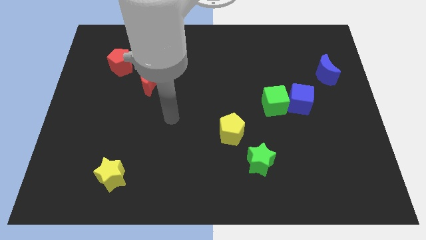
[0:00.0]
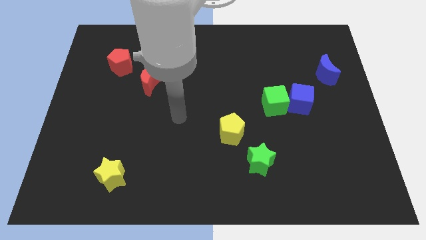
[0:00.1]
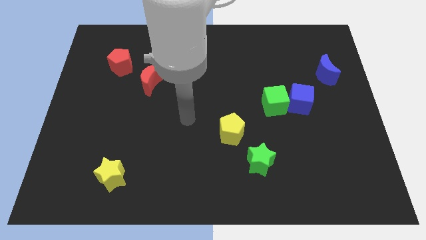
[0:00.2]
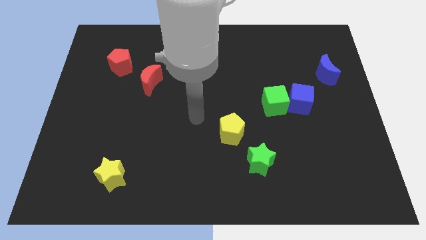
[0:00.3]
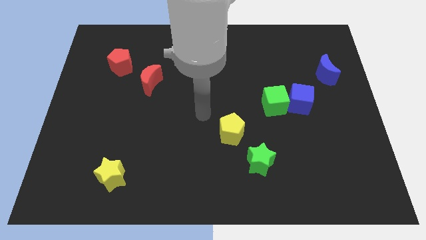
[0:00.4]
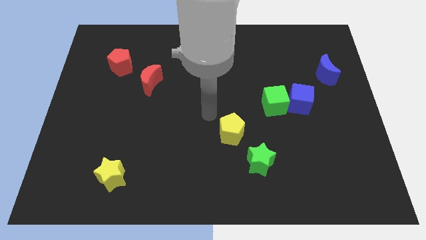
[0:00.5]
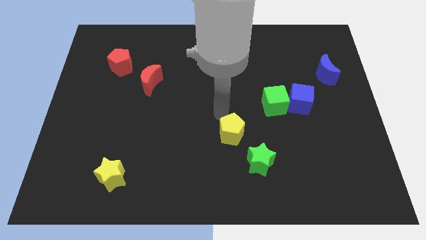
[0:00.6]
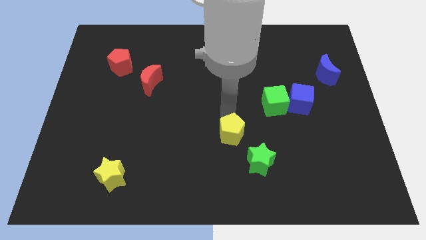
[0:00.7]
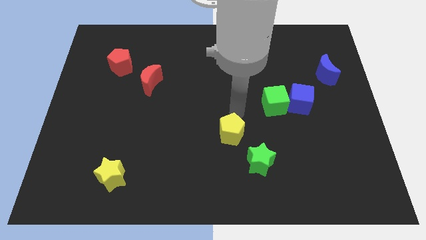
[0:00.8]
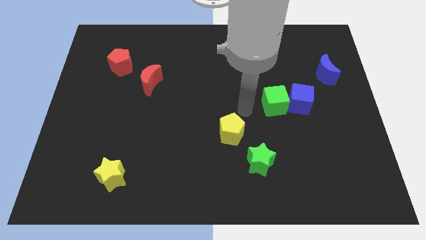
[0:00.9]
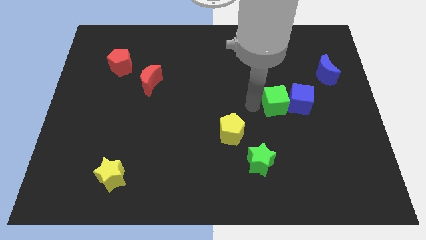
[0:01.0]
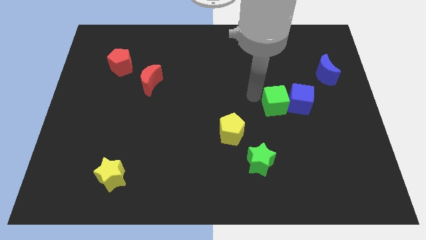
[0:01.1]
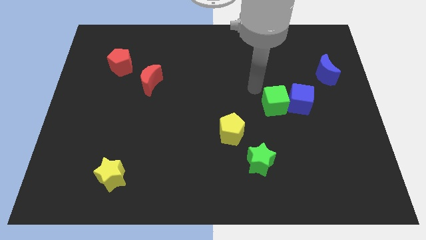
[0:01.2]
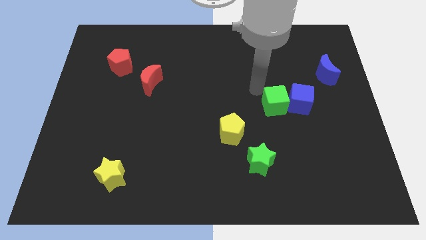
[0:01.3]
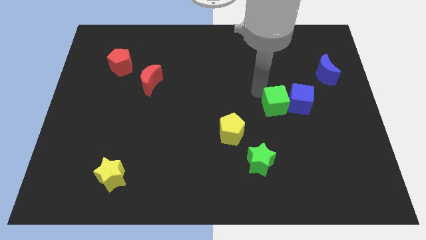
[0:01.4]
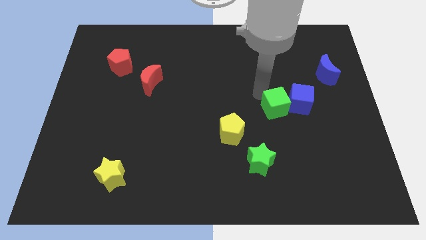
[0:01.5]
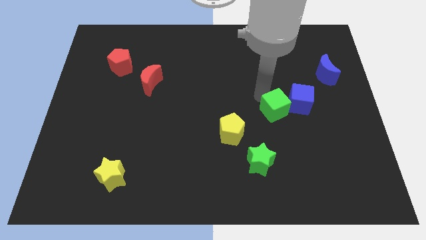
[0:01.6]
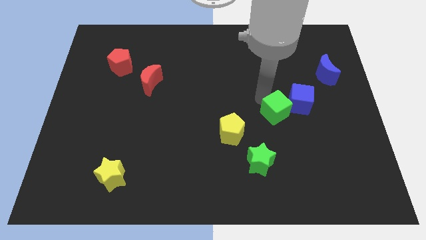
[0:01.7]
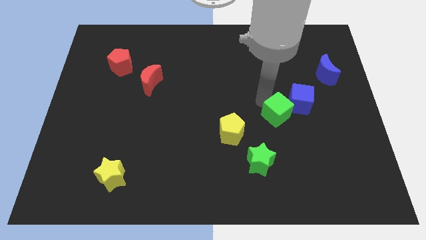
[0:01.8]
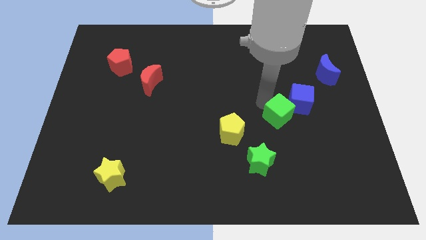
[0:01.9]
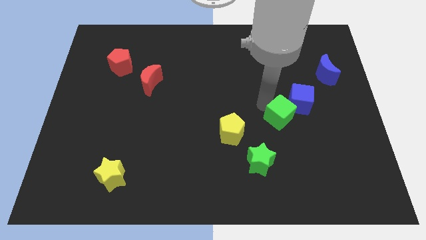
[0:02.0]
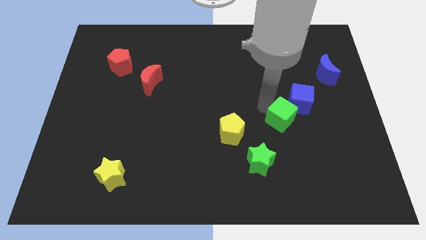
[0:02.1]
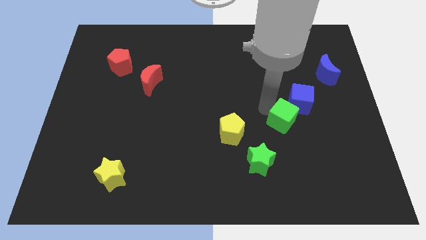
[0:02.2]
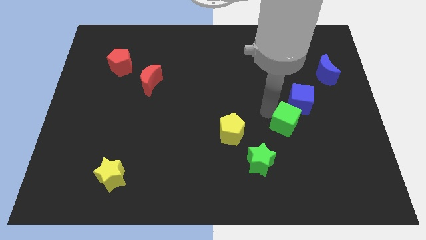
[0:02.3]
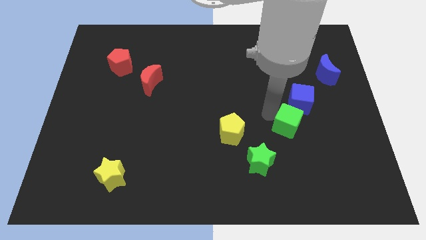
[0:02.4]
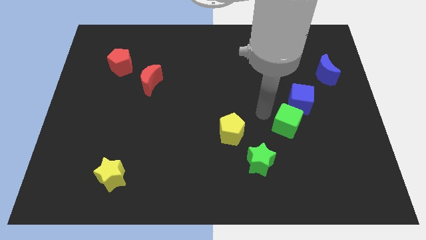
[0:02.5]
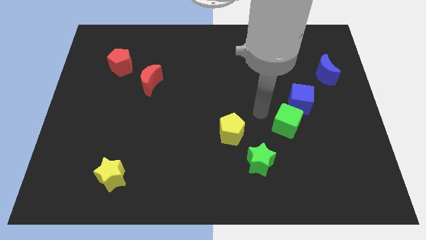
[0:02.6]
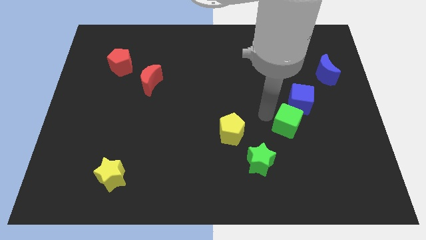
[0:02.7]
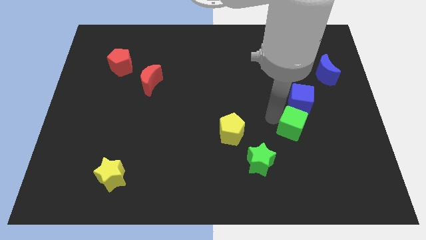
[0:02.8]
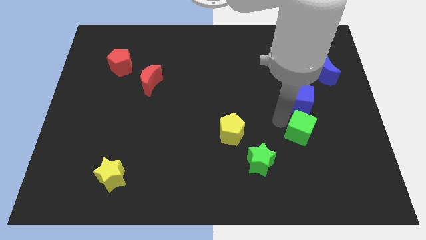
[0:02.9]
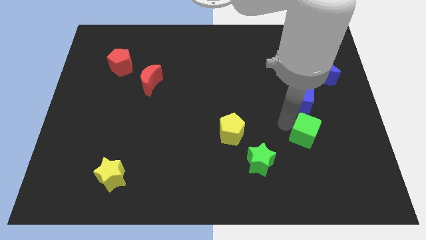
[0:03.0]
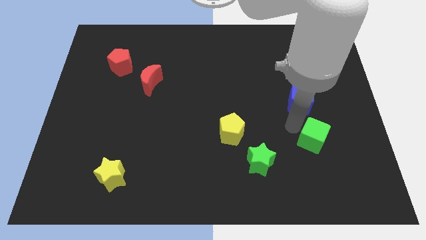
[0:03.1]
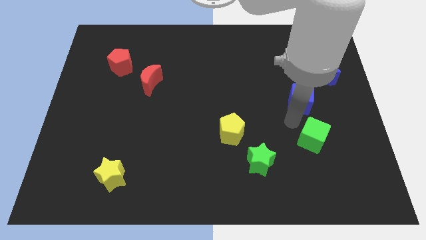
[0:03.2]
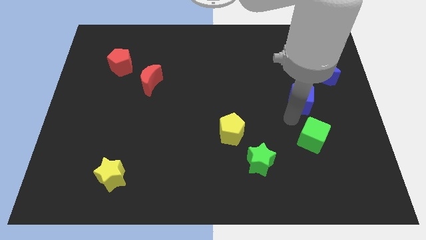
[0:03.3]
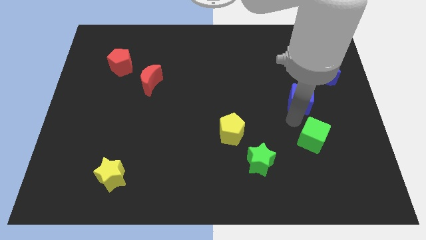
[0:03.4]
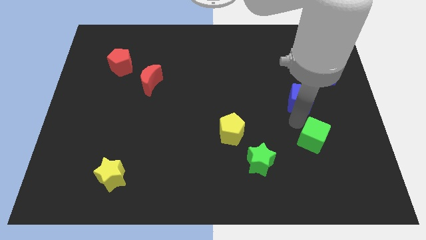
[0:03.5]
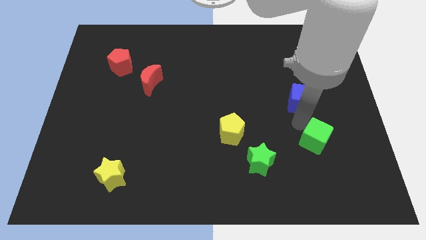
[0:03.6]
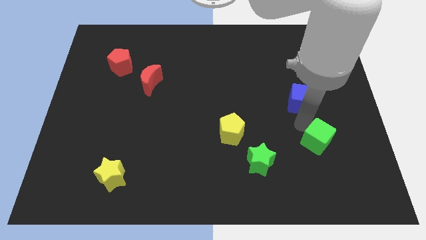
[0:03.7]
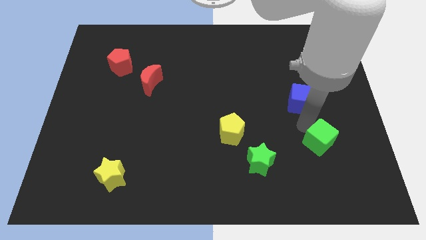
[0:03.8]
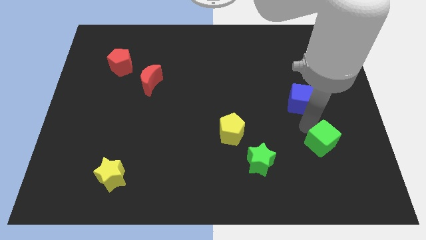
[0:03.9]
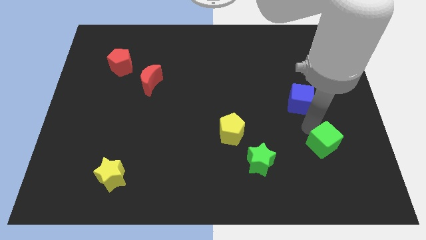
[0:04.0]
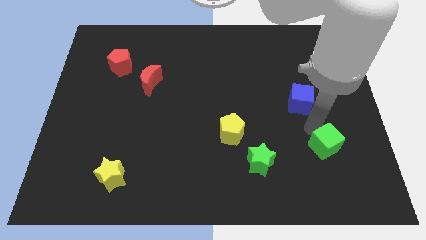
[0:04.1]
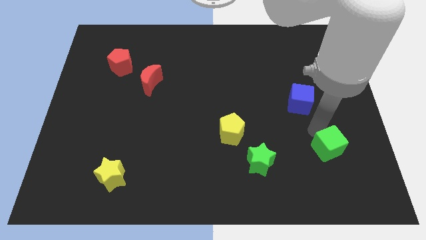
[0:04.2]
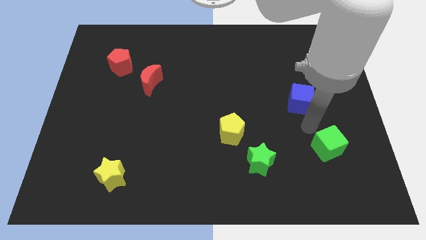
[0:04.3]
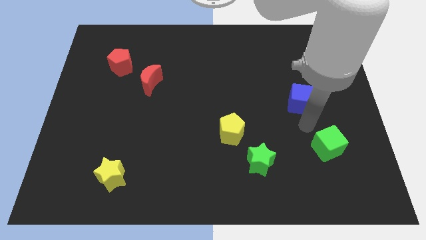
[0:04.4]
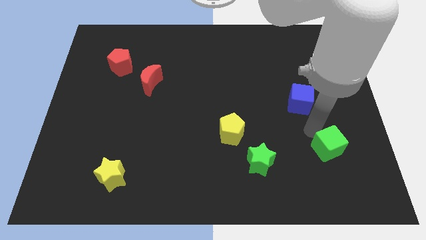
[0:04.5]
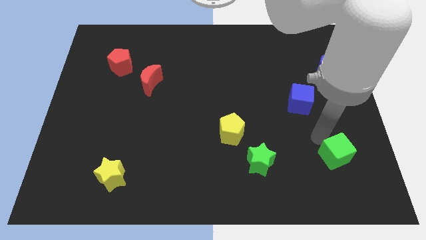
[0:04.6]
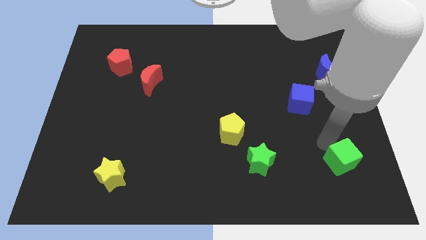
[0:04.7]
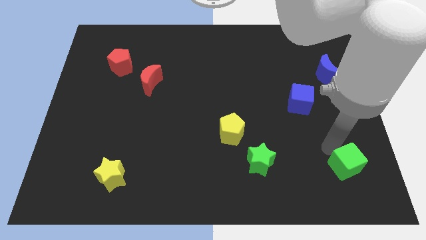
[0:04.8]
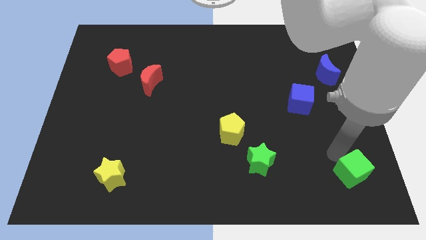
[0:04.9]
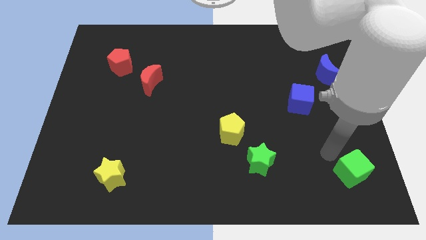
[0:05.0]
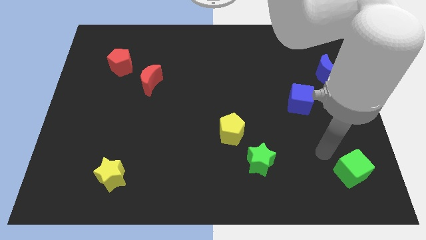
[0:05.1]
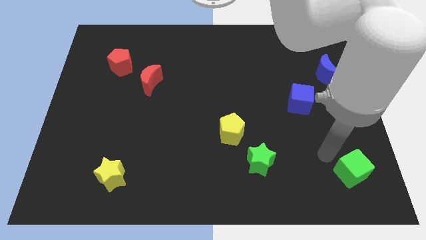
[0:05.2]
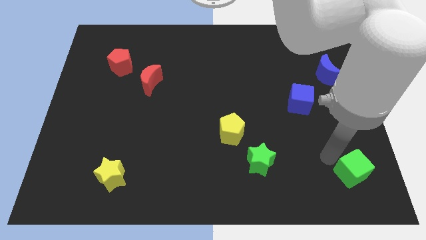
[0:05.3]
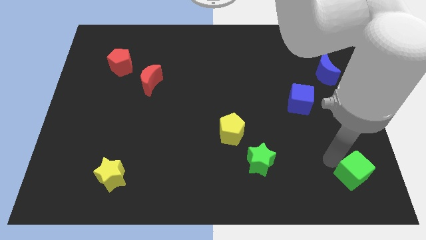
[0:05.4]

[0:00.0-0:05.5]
put the green cube to the bottom right of the board

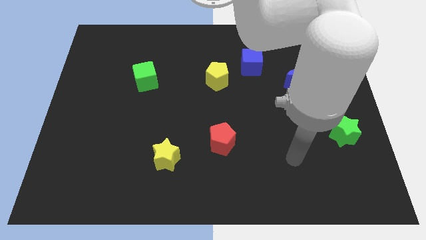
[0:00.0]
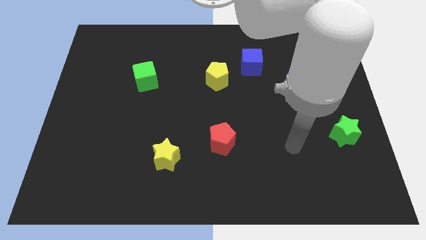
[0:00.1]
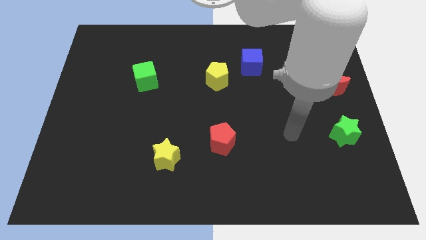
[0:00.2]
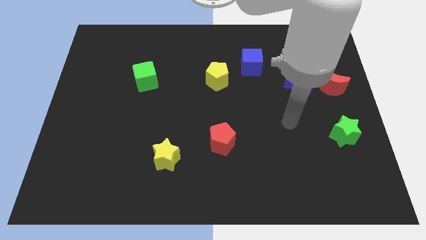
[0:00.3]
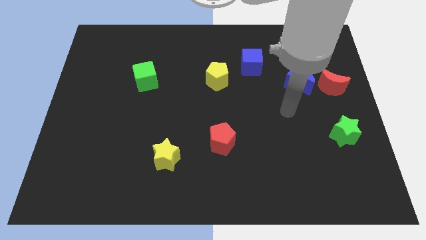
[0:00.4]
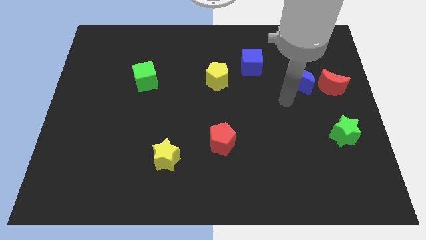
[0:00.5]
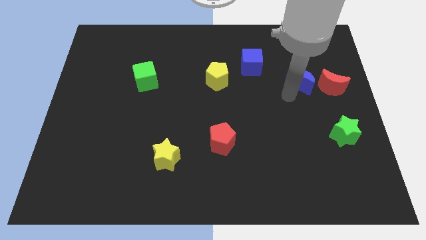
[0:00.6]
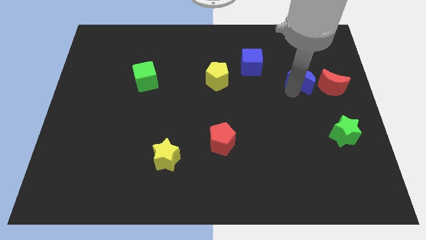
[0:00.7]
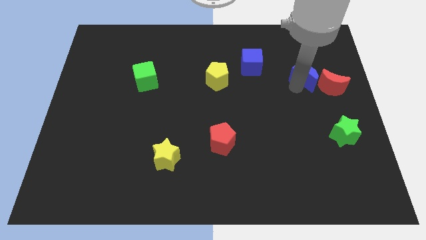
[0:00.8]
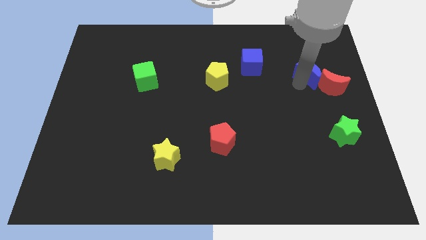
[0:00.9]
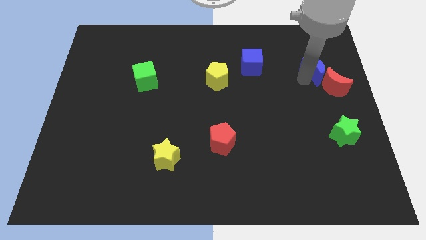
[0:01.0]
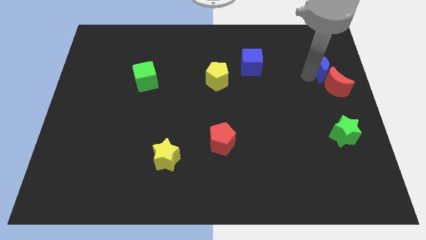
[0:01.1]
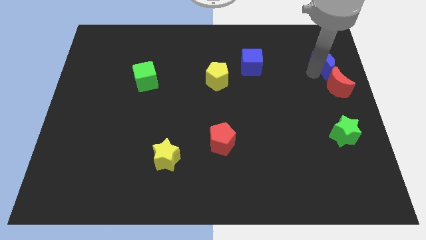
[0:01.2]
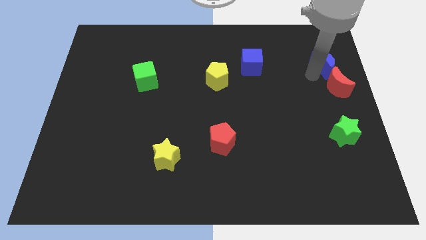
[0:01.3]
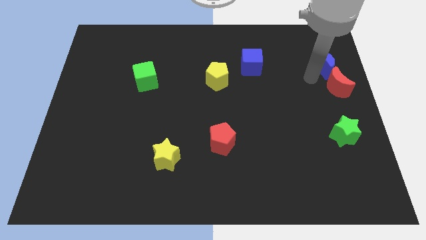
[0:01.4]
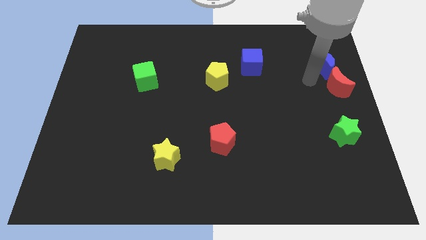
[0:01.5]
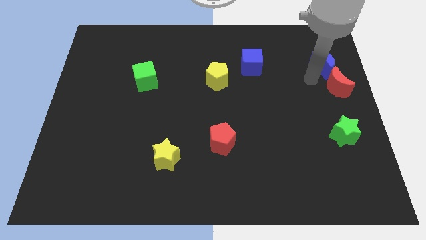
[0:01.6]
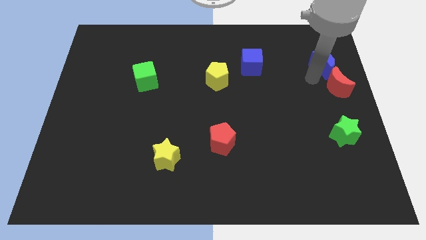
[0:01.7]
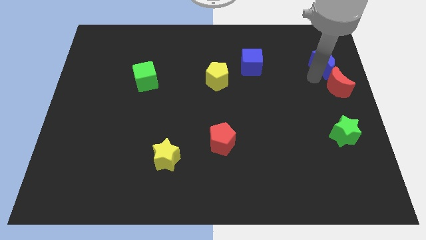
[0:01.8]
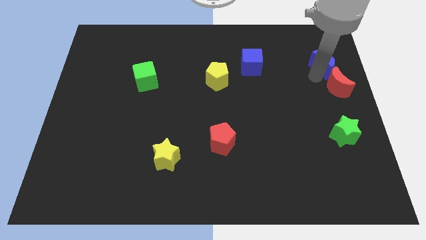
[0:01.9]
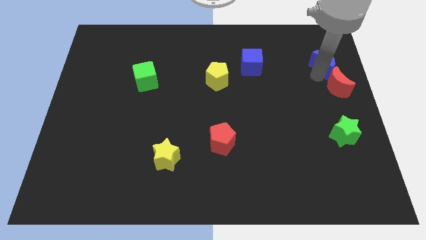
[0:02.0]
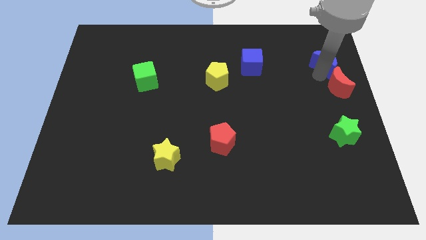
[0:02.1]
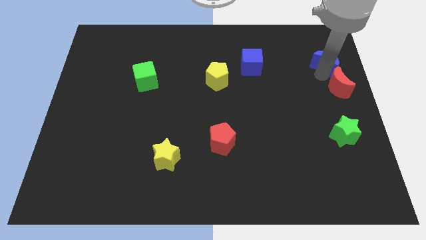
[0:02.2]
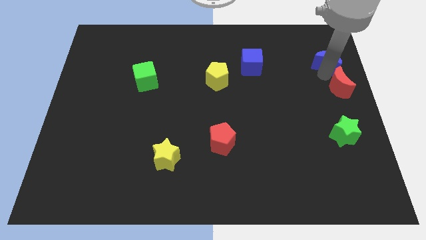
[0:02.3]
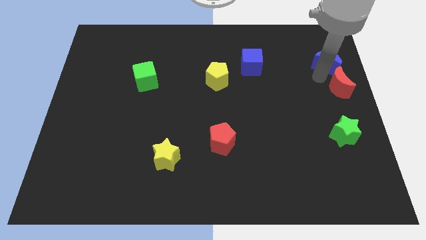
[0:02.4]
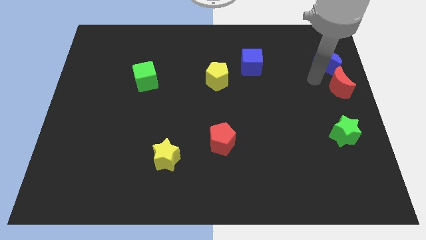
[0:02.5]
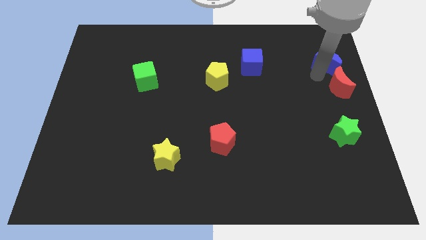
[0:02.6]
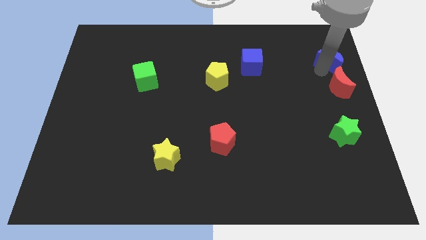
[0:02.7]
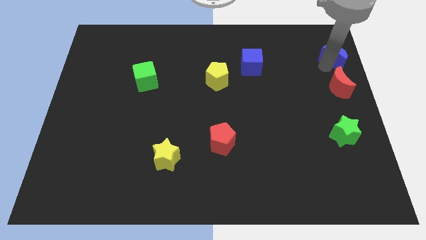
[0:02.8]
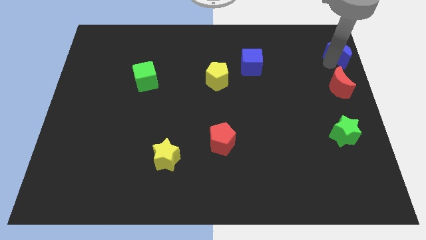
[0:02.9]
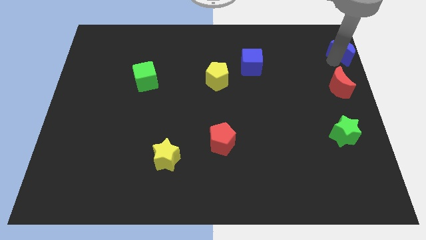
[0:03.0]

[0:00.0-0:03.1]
move the blue moon to the top right of the board
